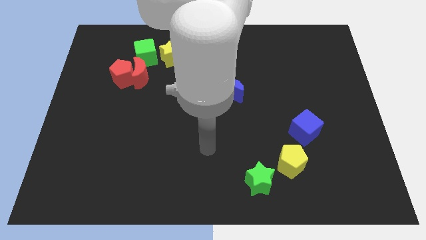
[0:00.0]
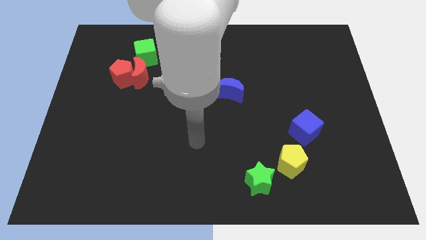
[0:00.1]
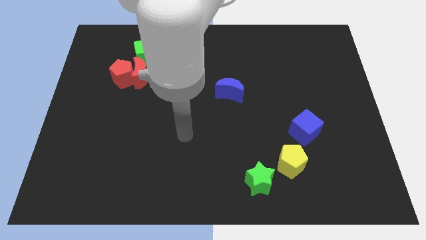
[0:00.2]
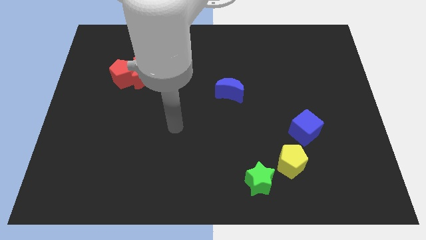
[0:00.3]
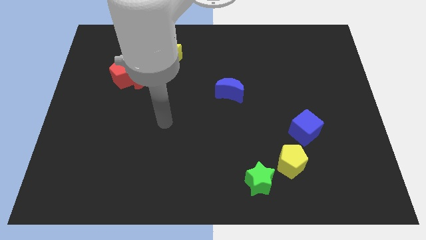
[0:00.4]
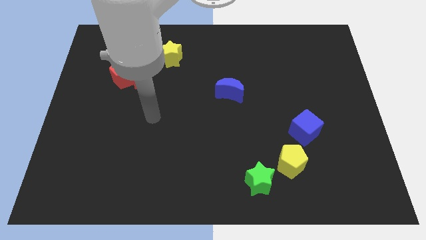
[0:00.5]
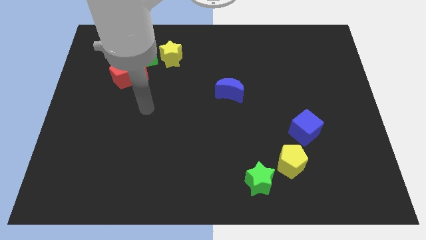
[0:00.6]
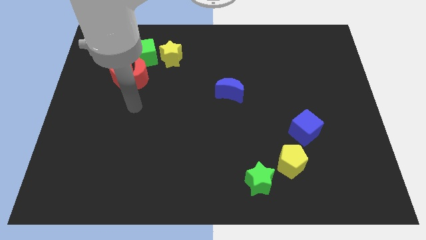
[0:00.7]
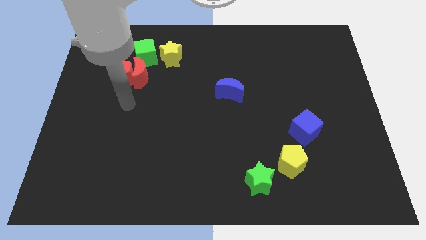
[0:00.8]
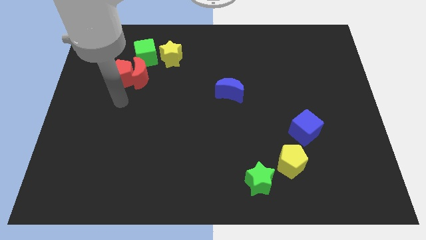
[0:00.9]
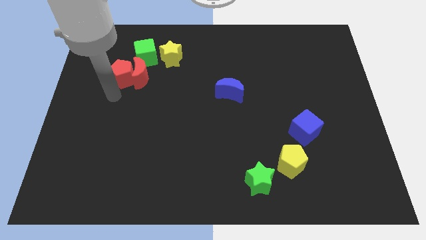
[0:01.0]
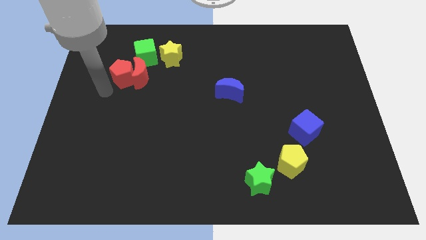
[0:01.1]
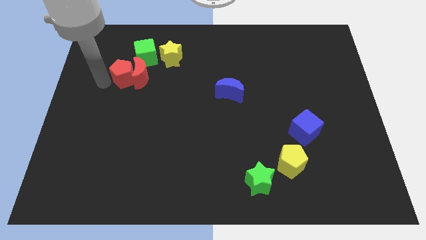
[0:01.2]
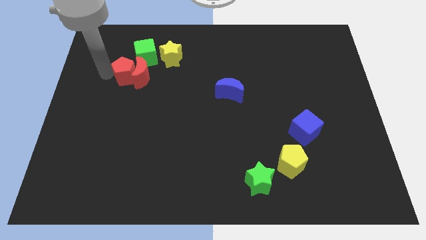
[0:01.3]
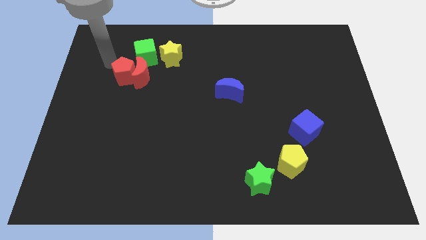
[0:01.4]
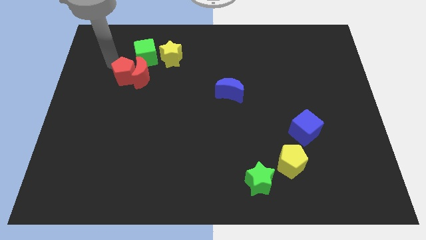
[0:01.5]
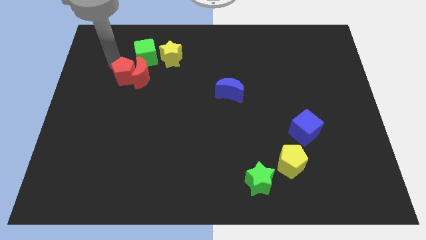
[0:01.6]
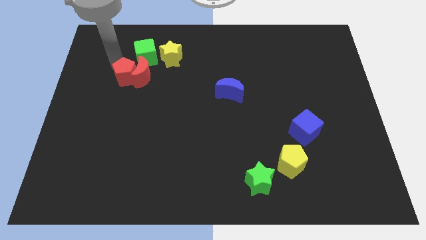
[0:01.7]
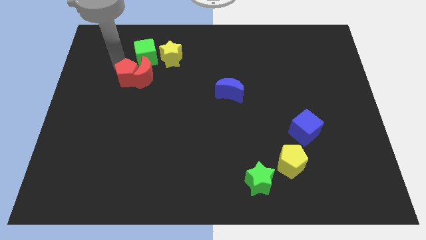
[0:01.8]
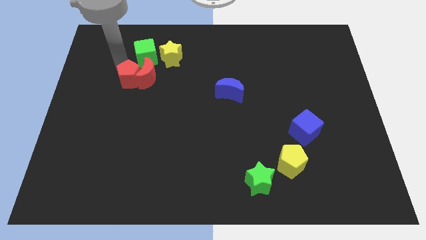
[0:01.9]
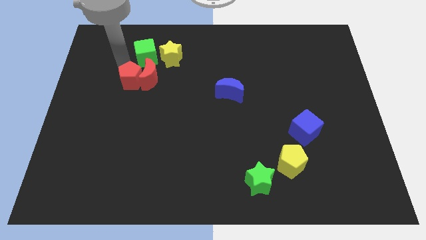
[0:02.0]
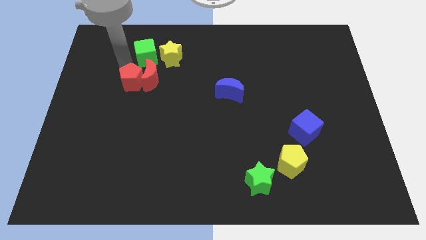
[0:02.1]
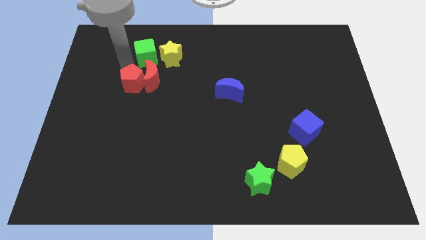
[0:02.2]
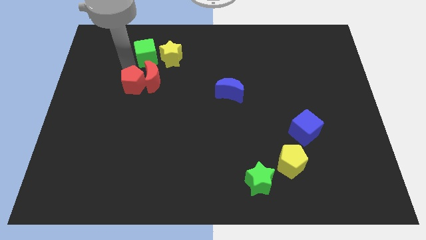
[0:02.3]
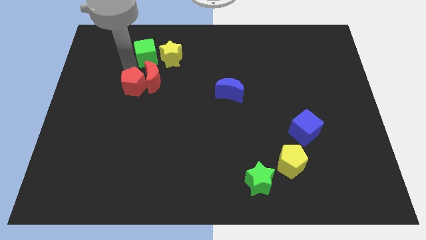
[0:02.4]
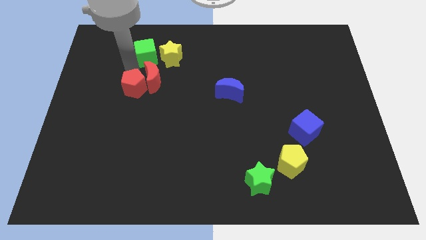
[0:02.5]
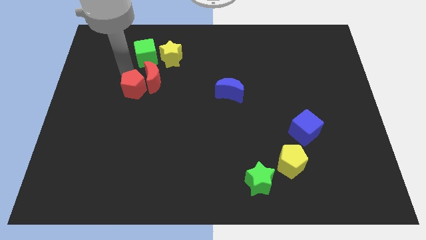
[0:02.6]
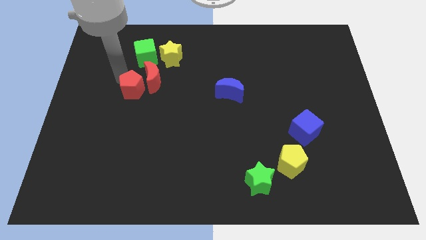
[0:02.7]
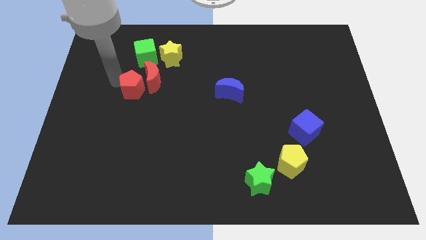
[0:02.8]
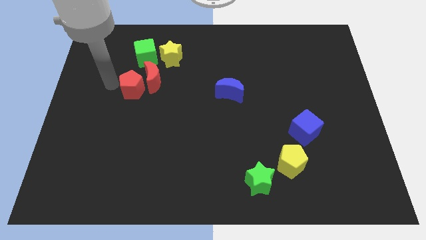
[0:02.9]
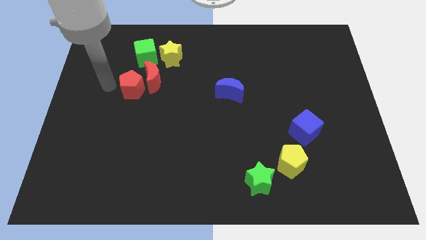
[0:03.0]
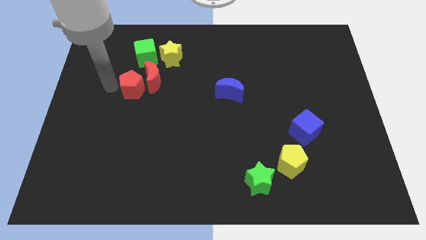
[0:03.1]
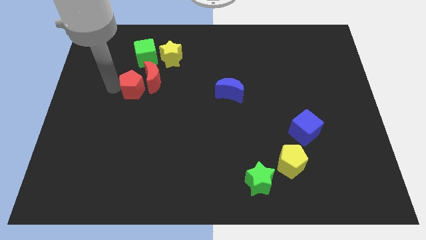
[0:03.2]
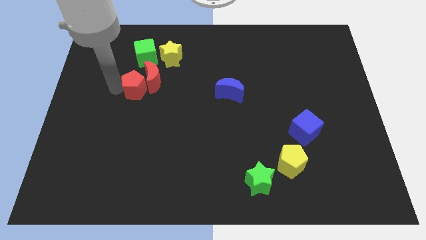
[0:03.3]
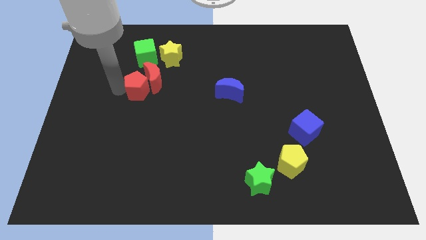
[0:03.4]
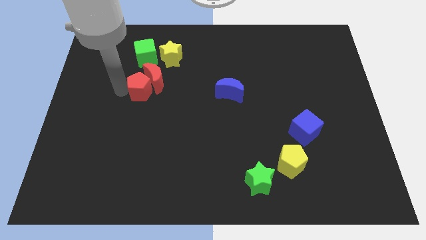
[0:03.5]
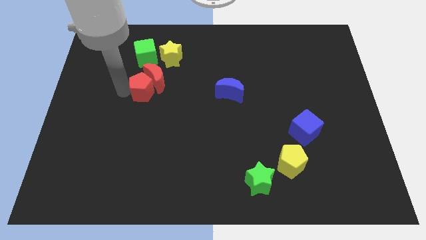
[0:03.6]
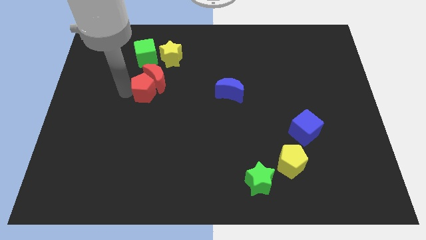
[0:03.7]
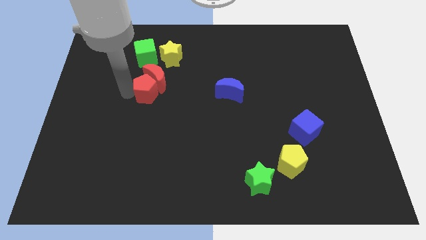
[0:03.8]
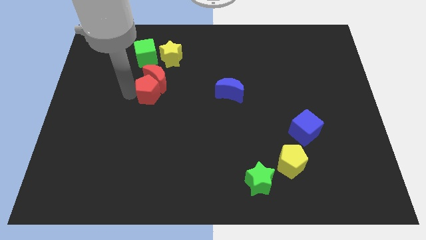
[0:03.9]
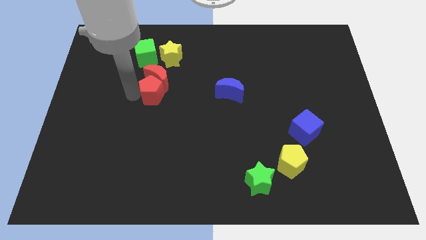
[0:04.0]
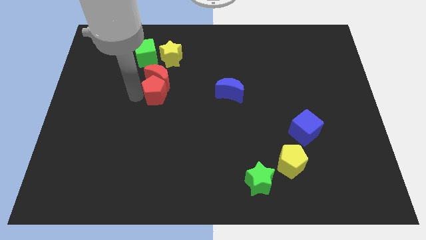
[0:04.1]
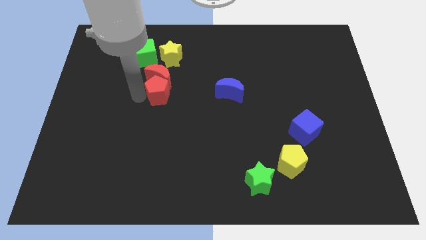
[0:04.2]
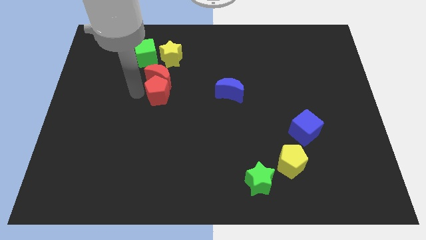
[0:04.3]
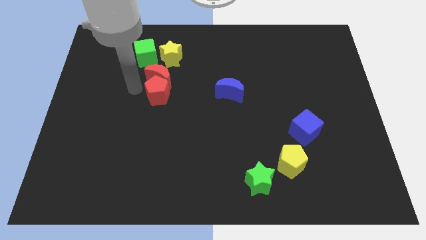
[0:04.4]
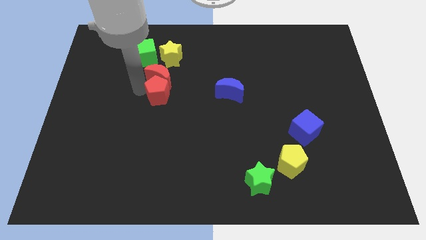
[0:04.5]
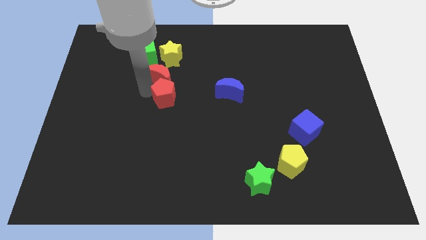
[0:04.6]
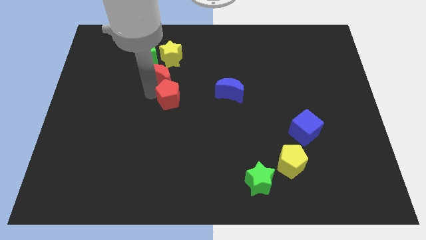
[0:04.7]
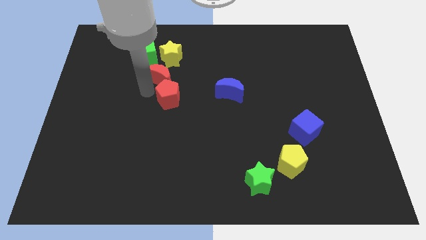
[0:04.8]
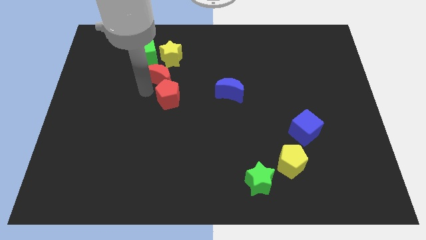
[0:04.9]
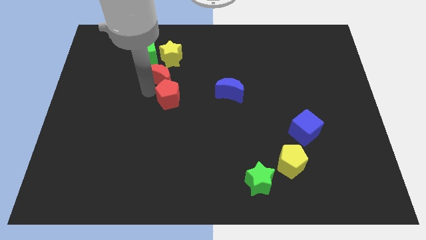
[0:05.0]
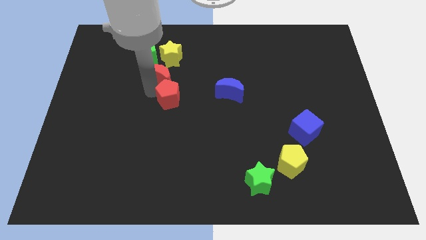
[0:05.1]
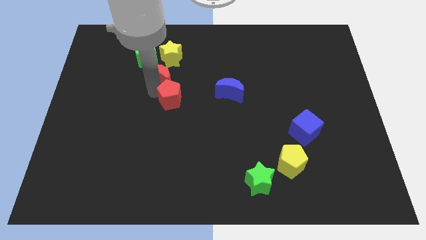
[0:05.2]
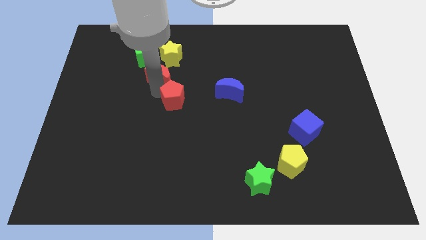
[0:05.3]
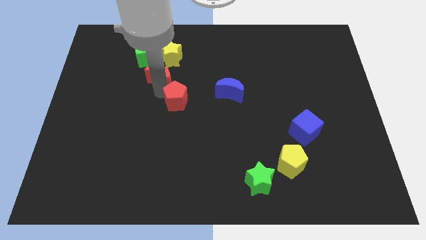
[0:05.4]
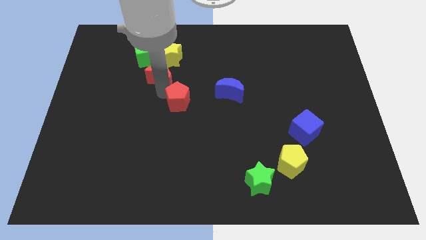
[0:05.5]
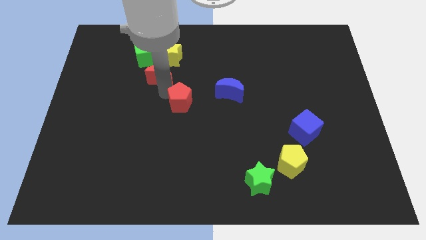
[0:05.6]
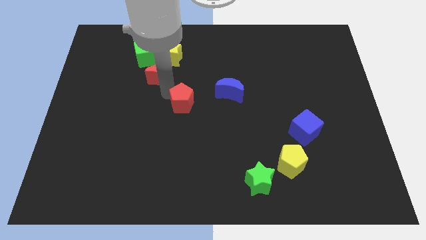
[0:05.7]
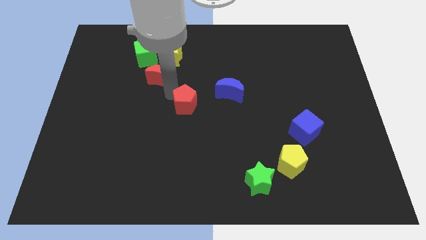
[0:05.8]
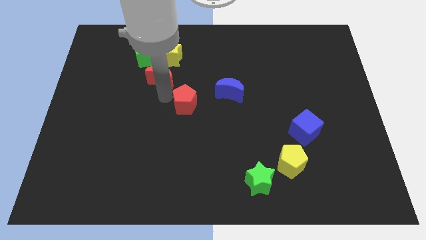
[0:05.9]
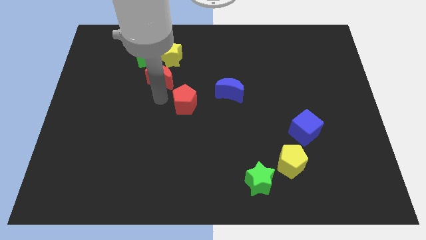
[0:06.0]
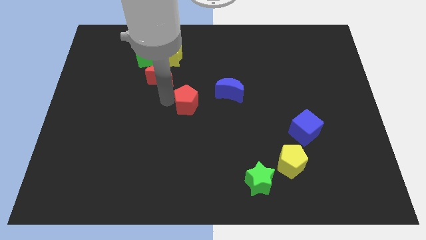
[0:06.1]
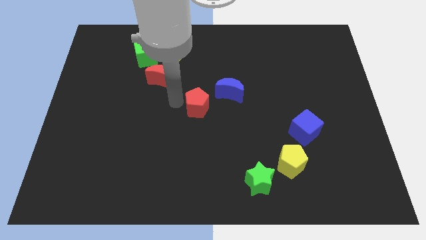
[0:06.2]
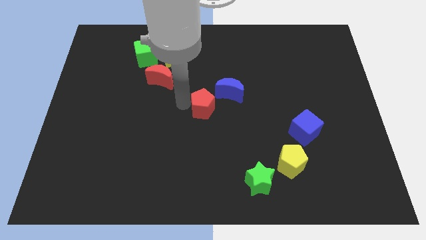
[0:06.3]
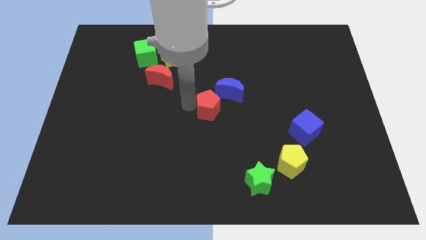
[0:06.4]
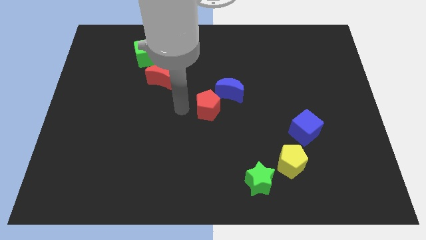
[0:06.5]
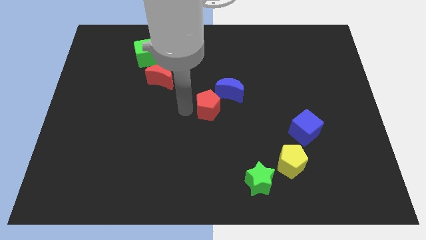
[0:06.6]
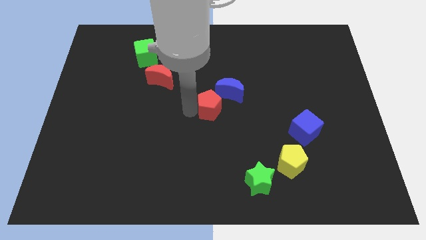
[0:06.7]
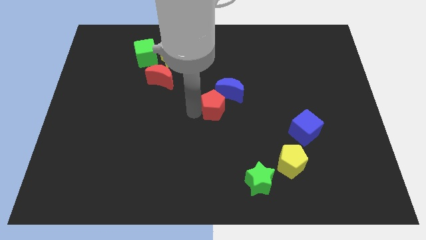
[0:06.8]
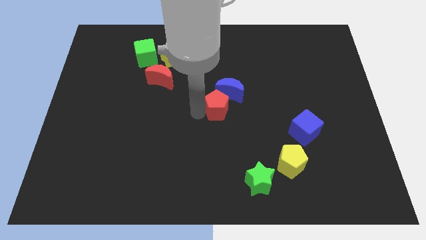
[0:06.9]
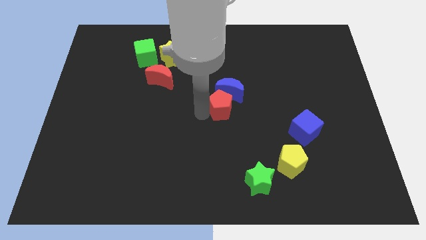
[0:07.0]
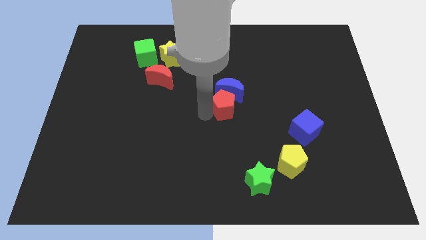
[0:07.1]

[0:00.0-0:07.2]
push the red pentagon diagonally down and to the right of the blue moon
